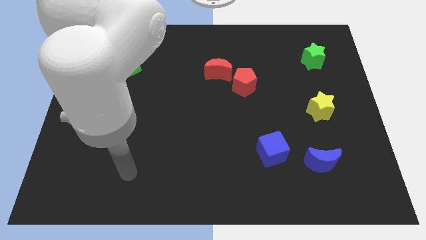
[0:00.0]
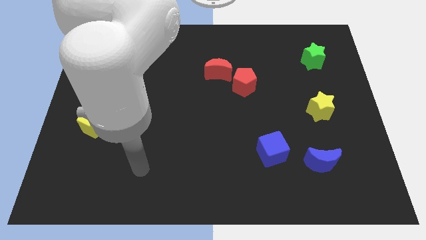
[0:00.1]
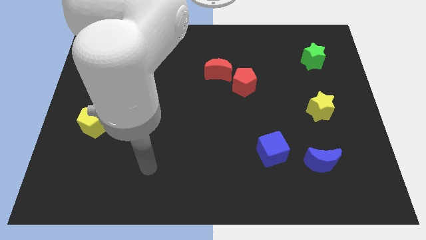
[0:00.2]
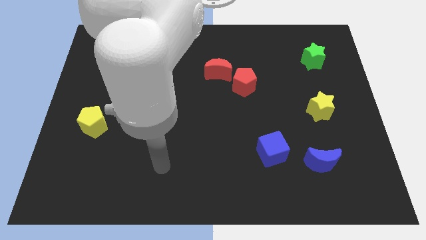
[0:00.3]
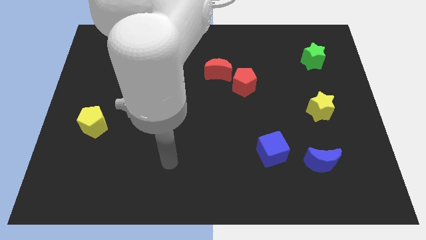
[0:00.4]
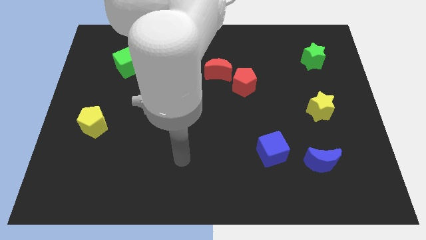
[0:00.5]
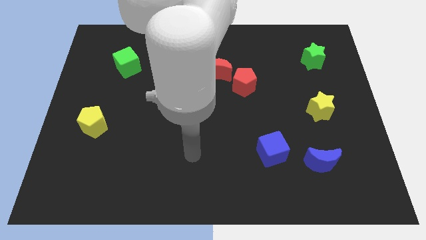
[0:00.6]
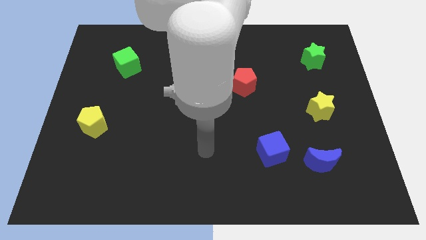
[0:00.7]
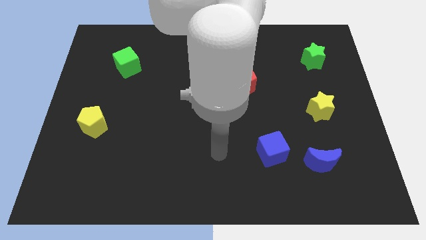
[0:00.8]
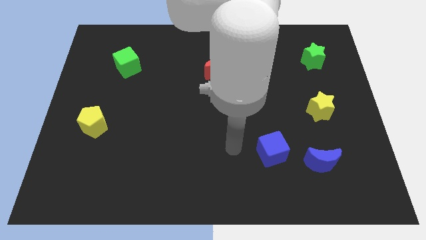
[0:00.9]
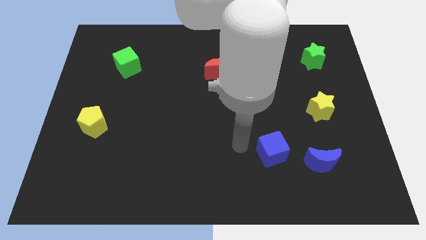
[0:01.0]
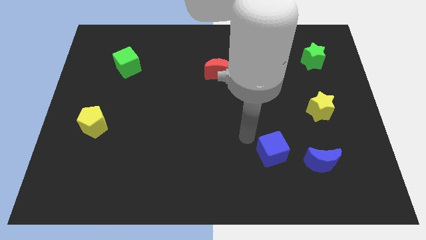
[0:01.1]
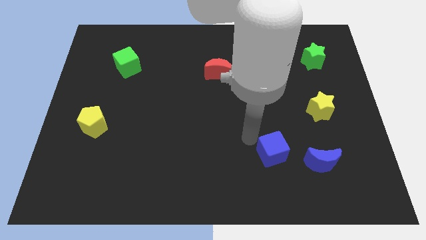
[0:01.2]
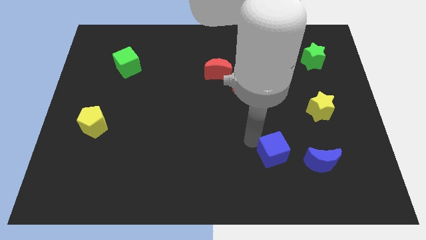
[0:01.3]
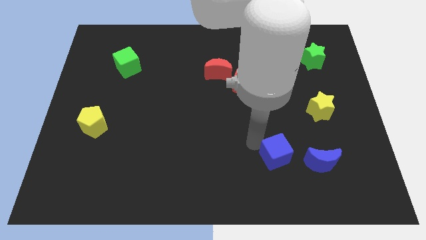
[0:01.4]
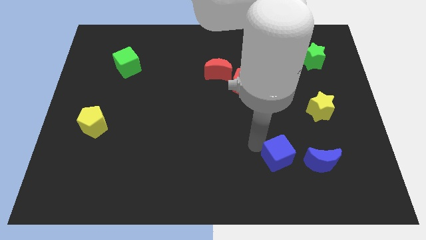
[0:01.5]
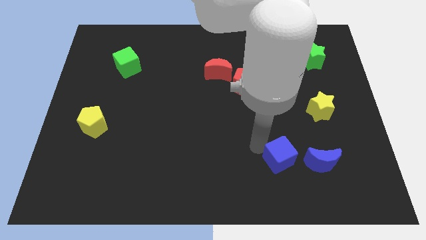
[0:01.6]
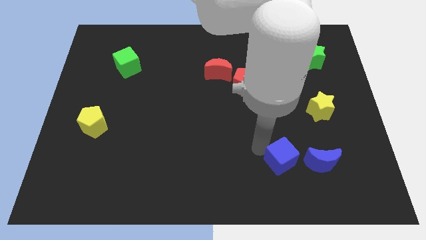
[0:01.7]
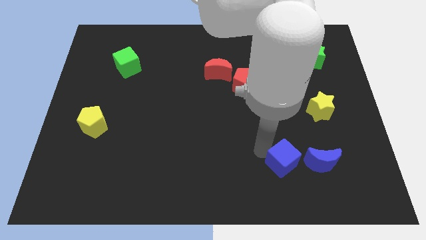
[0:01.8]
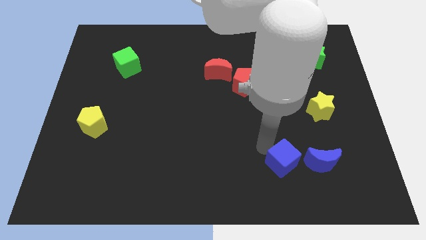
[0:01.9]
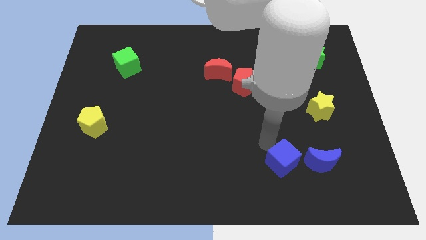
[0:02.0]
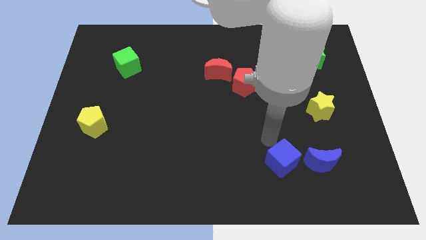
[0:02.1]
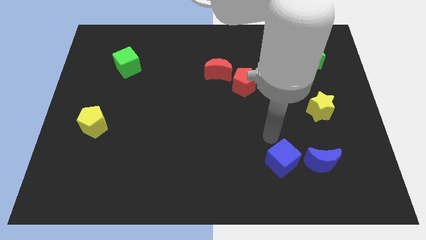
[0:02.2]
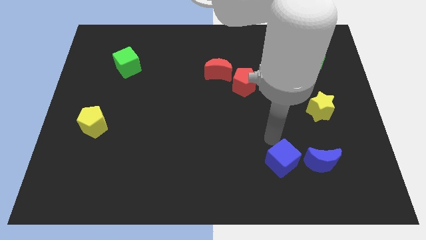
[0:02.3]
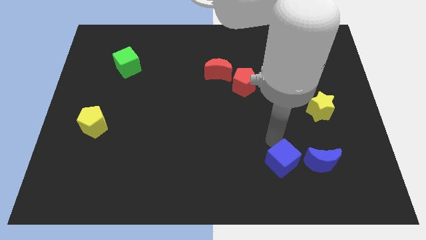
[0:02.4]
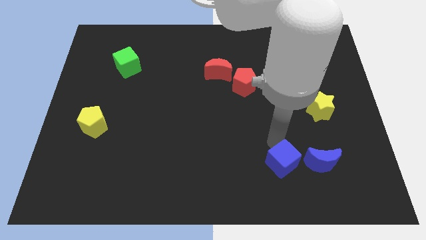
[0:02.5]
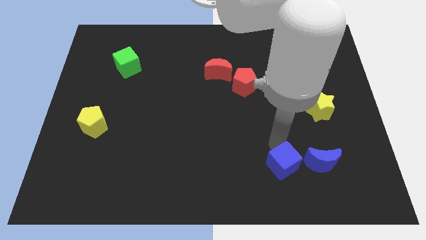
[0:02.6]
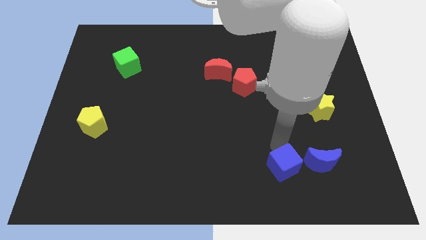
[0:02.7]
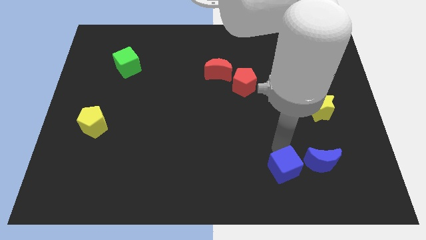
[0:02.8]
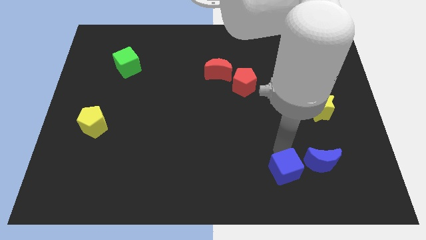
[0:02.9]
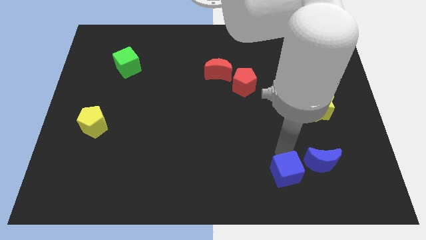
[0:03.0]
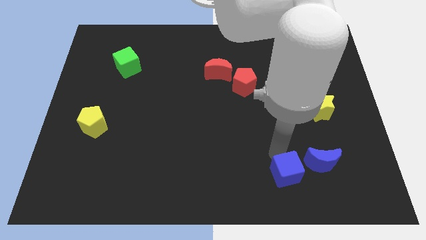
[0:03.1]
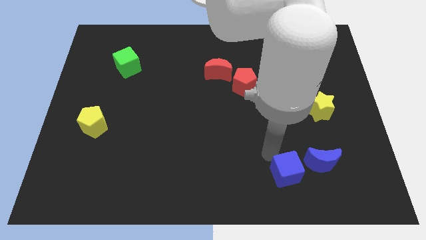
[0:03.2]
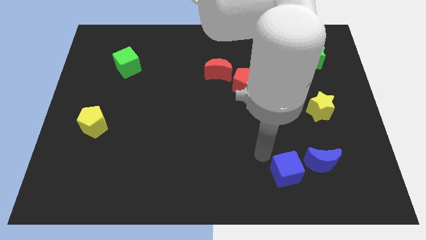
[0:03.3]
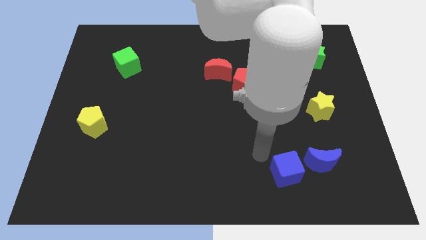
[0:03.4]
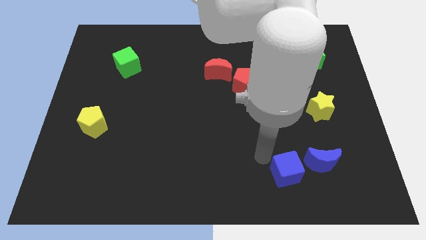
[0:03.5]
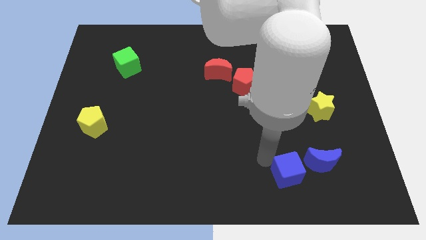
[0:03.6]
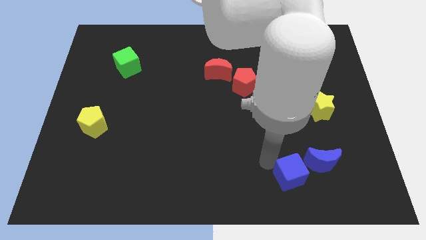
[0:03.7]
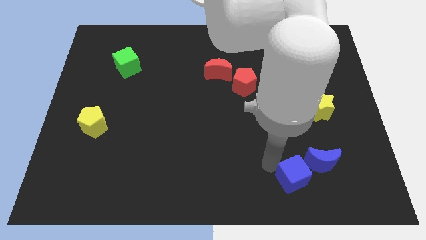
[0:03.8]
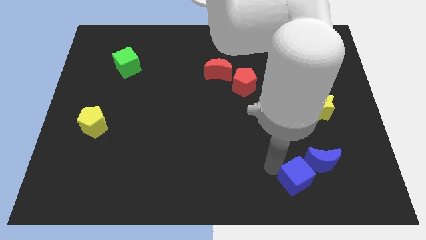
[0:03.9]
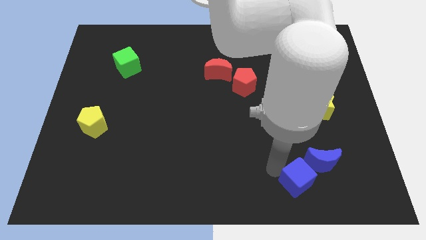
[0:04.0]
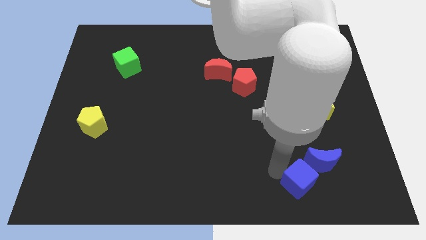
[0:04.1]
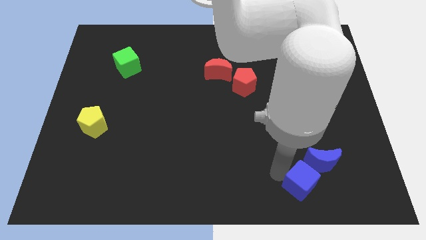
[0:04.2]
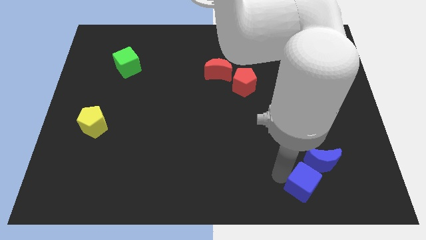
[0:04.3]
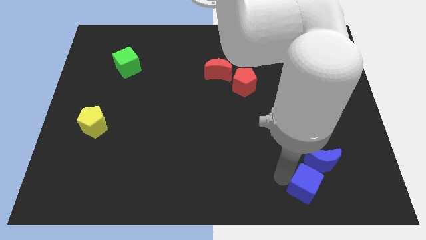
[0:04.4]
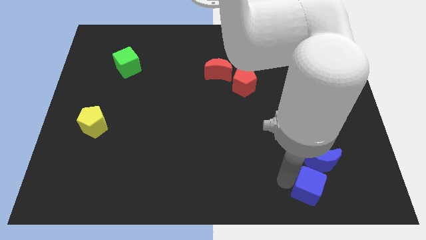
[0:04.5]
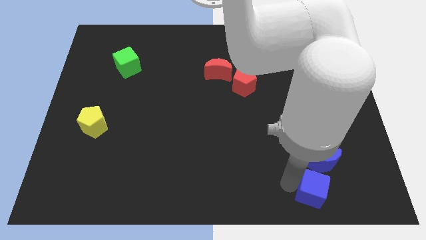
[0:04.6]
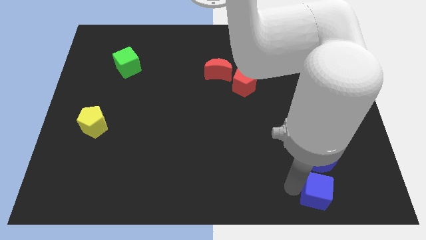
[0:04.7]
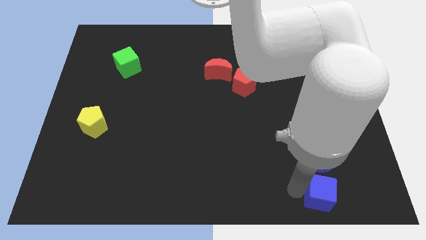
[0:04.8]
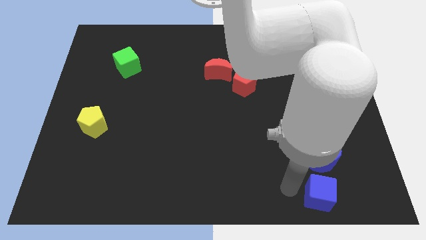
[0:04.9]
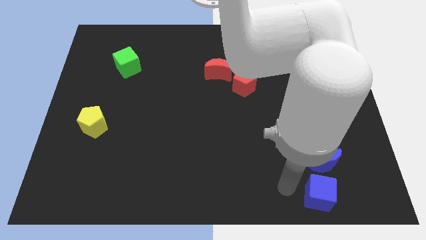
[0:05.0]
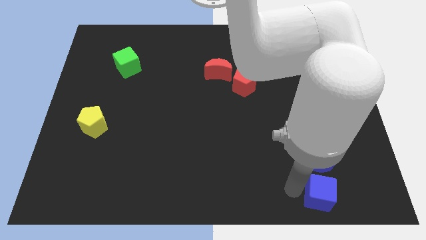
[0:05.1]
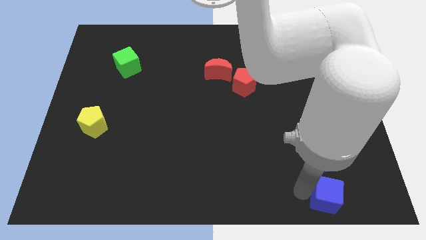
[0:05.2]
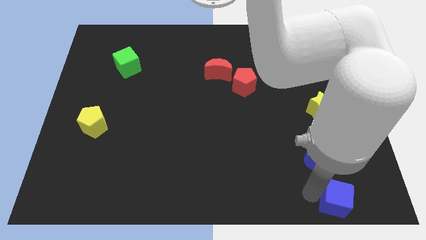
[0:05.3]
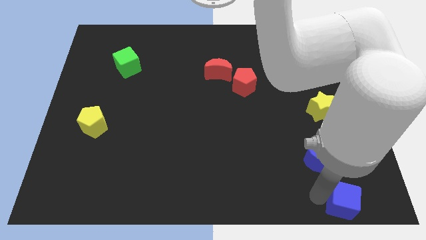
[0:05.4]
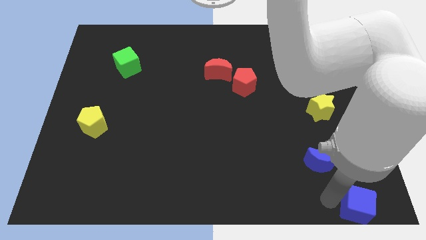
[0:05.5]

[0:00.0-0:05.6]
move the blue cube to the bottom right

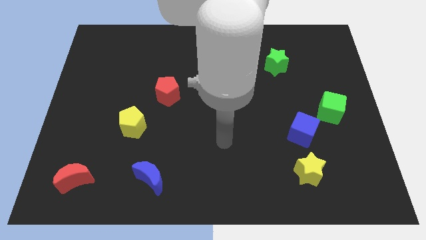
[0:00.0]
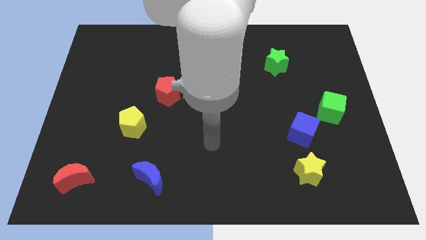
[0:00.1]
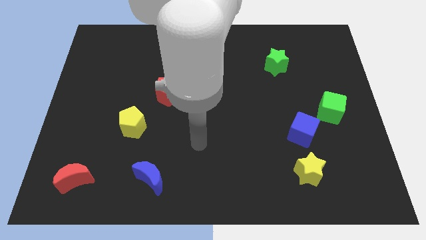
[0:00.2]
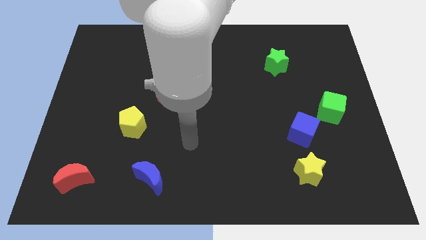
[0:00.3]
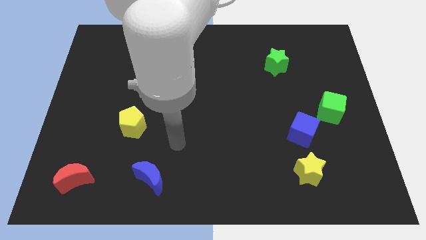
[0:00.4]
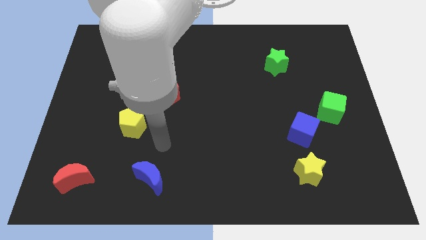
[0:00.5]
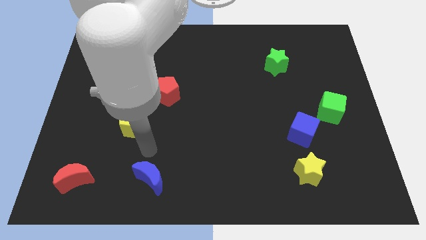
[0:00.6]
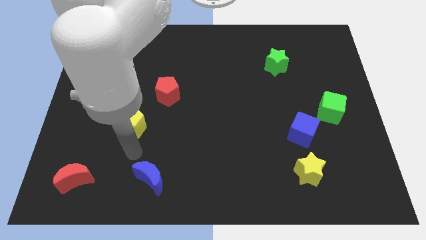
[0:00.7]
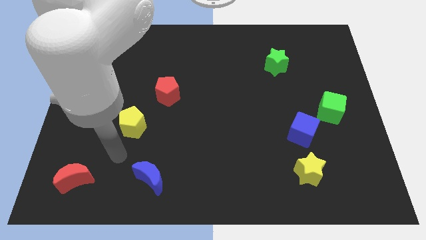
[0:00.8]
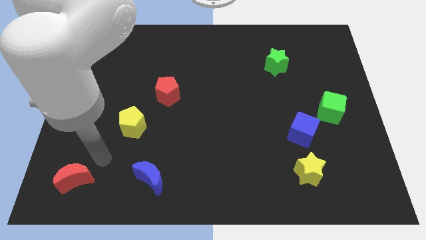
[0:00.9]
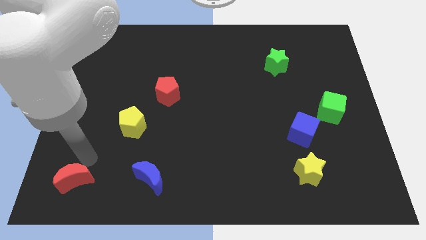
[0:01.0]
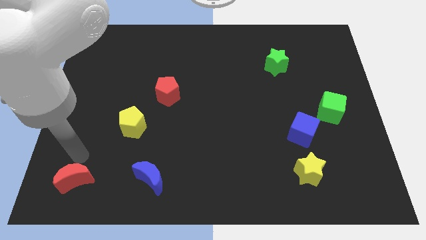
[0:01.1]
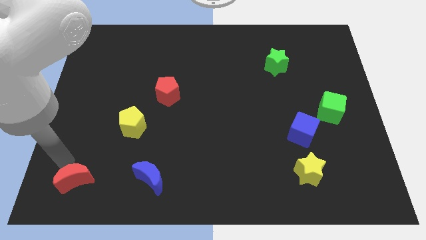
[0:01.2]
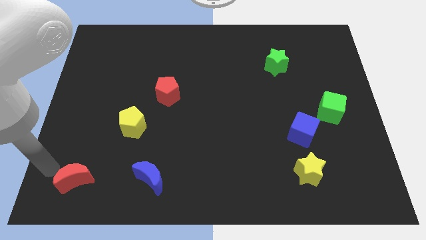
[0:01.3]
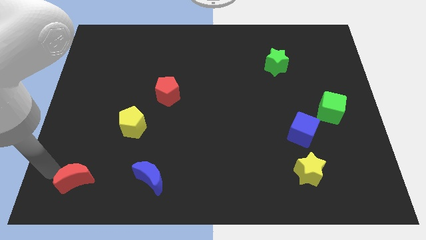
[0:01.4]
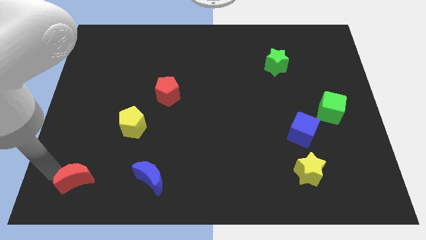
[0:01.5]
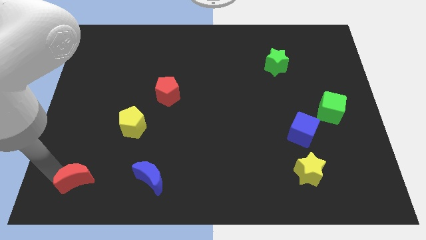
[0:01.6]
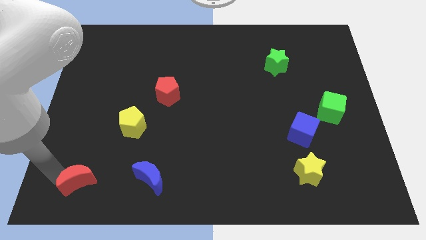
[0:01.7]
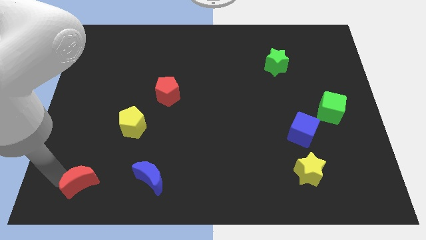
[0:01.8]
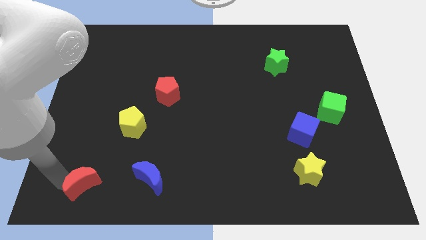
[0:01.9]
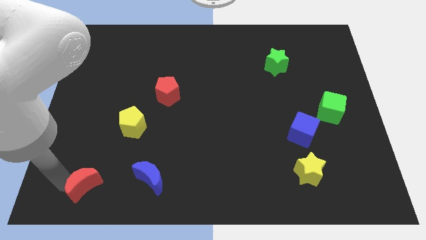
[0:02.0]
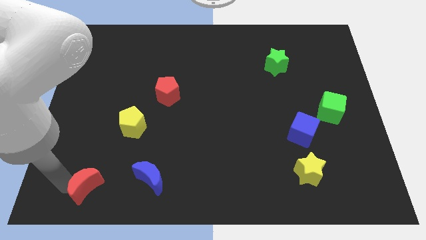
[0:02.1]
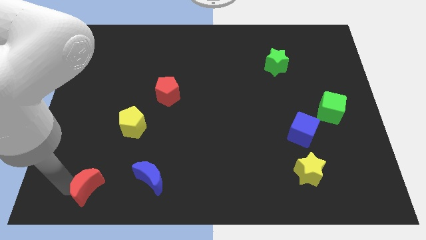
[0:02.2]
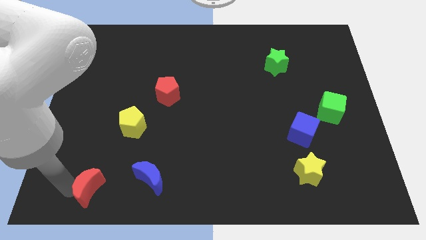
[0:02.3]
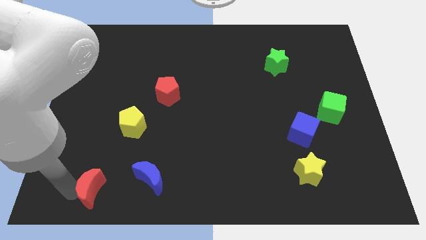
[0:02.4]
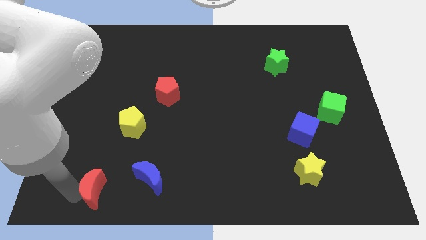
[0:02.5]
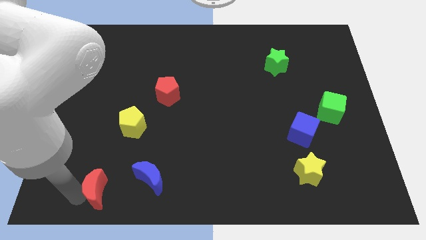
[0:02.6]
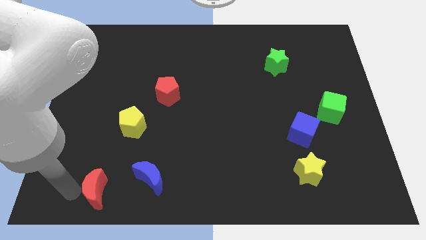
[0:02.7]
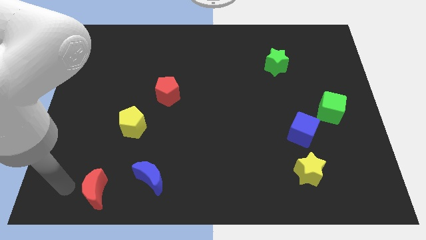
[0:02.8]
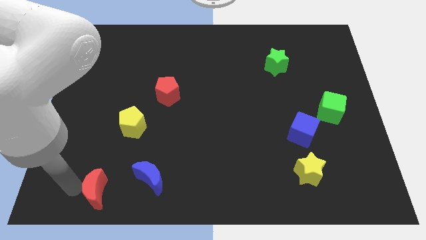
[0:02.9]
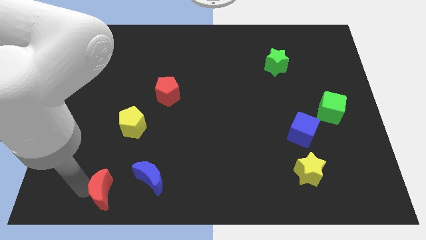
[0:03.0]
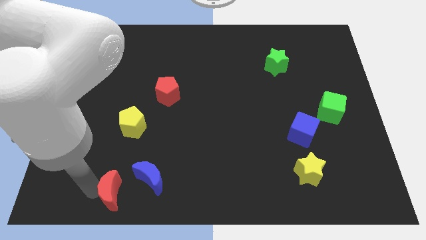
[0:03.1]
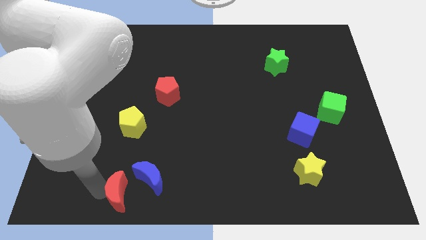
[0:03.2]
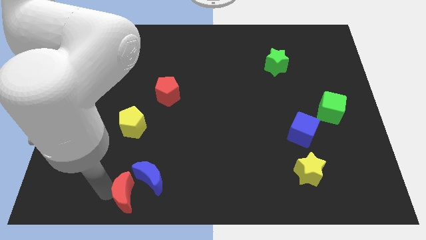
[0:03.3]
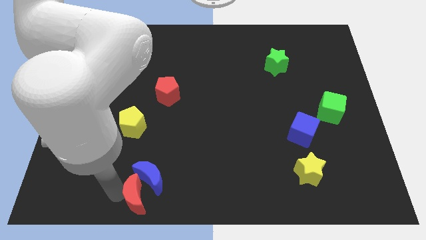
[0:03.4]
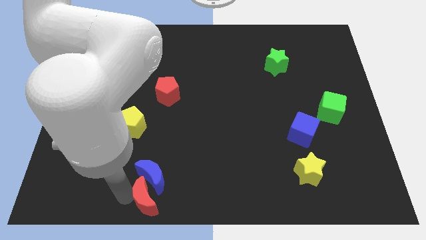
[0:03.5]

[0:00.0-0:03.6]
put the red moon to the bottom
